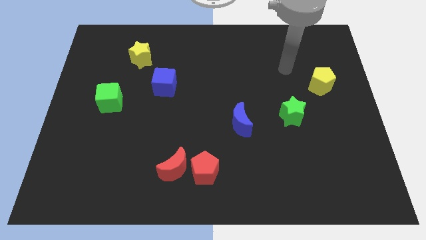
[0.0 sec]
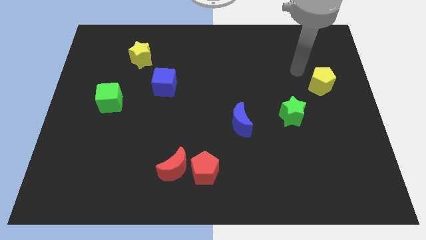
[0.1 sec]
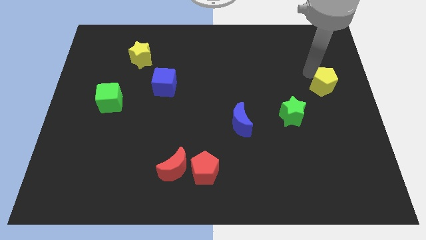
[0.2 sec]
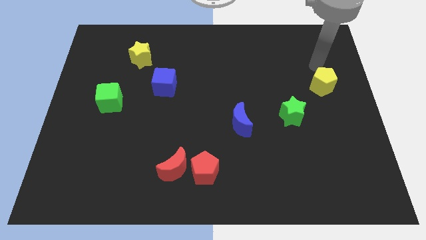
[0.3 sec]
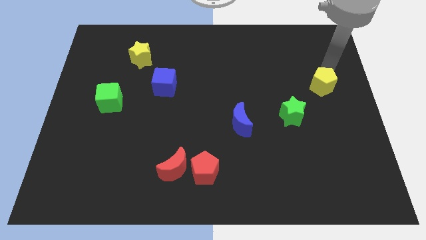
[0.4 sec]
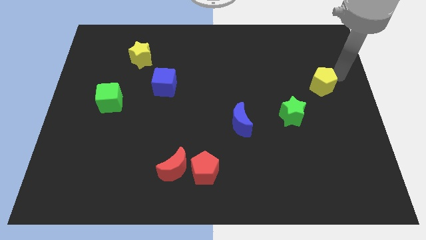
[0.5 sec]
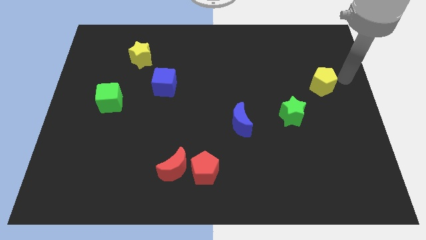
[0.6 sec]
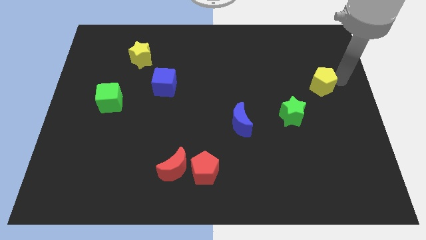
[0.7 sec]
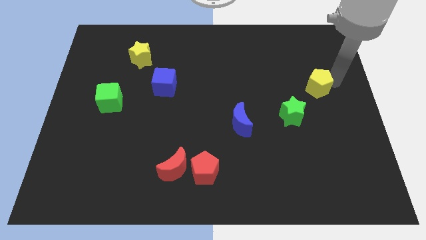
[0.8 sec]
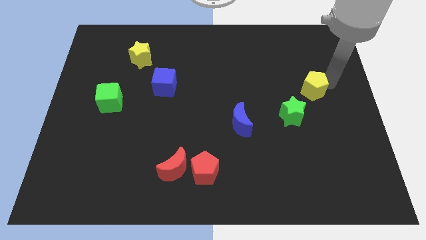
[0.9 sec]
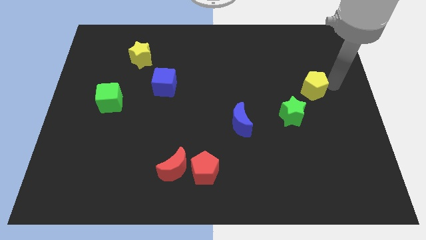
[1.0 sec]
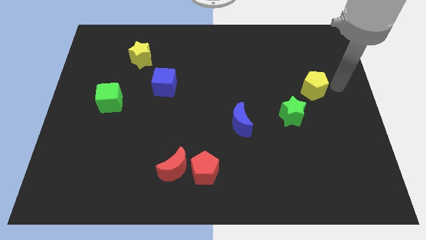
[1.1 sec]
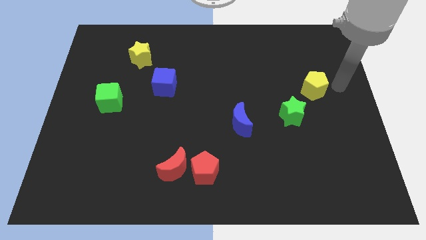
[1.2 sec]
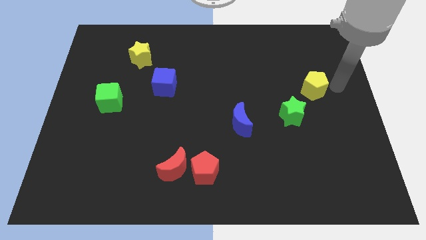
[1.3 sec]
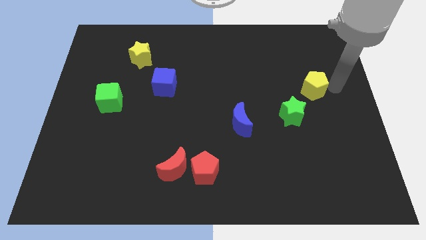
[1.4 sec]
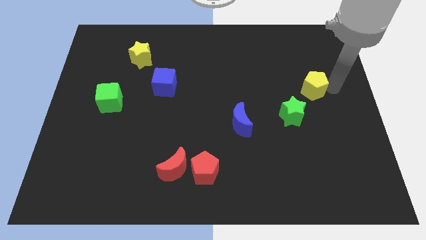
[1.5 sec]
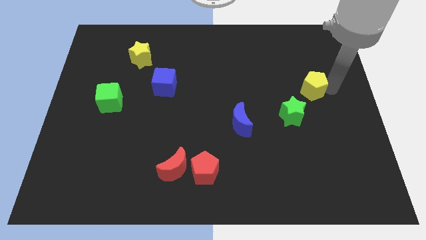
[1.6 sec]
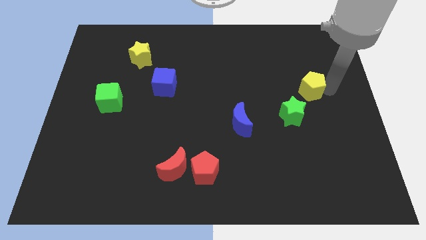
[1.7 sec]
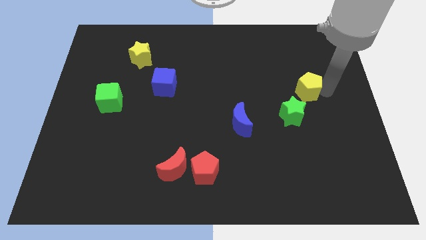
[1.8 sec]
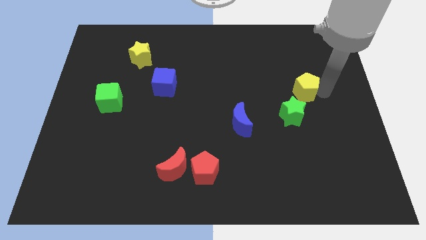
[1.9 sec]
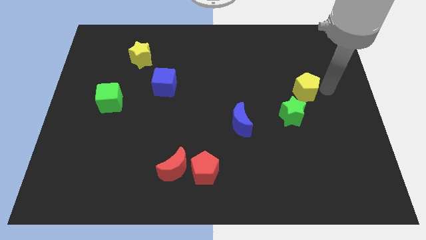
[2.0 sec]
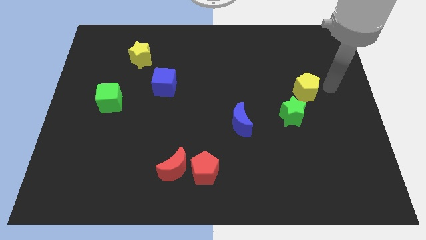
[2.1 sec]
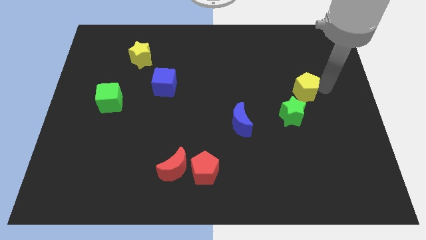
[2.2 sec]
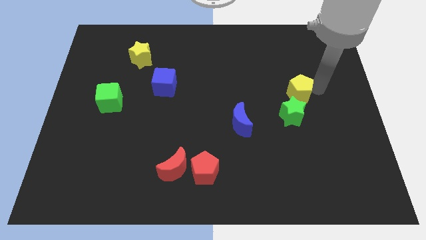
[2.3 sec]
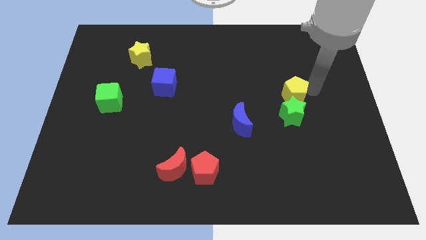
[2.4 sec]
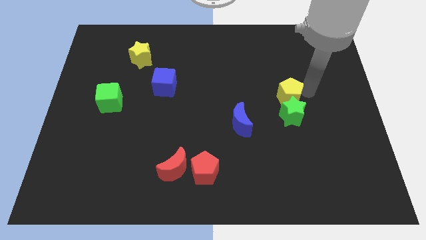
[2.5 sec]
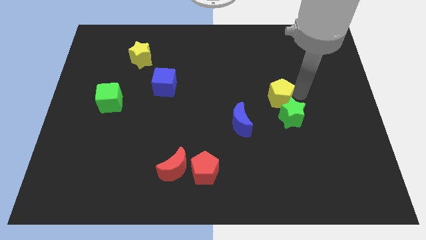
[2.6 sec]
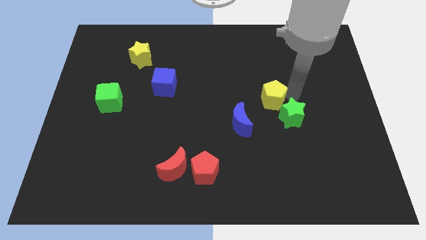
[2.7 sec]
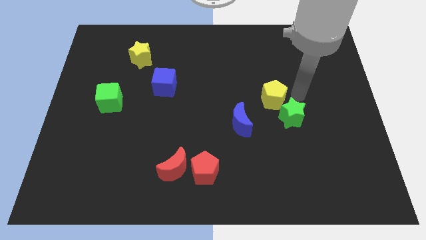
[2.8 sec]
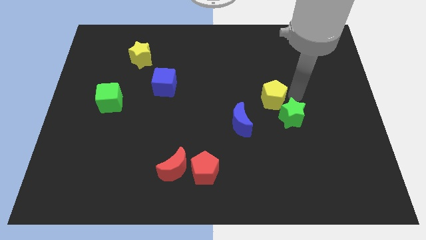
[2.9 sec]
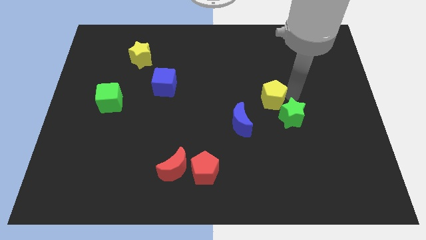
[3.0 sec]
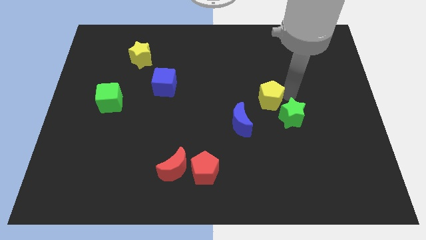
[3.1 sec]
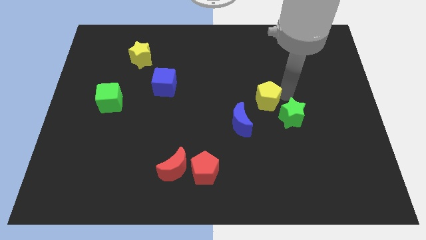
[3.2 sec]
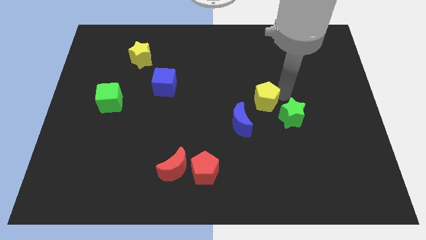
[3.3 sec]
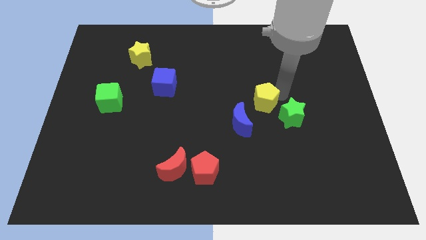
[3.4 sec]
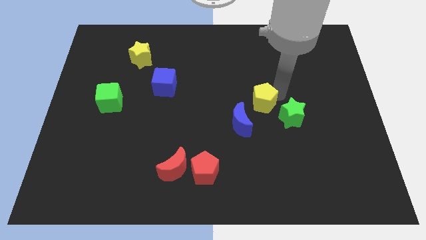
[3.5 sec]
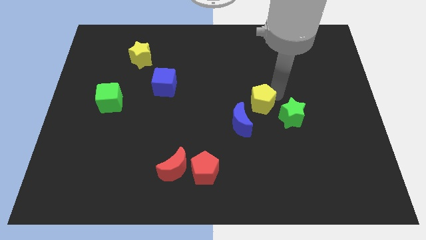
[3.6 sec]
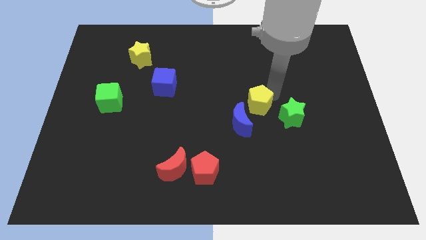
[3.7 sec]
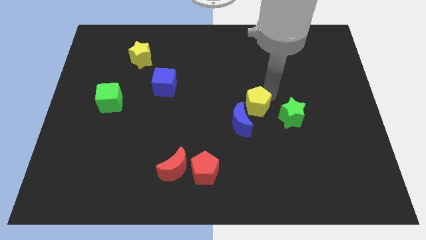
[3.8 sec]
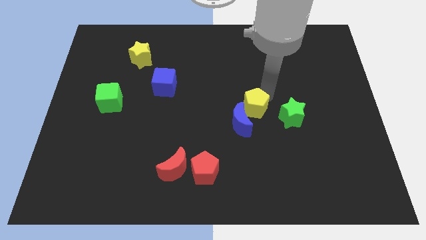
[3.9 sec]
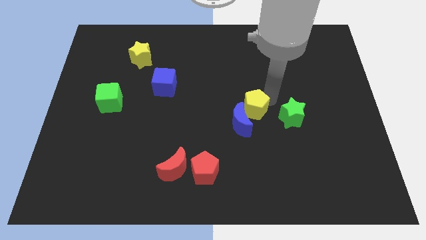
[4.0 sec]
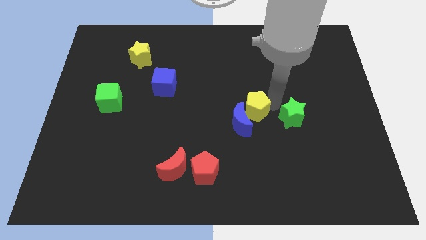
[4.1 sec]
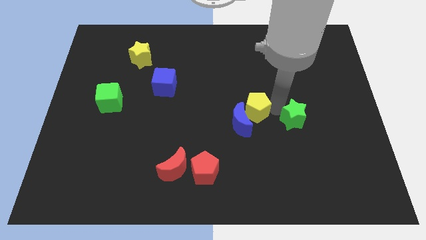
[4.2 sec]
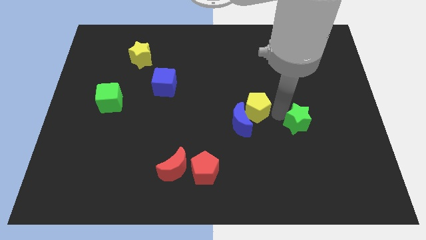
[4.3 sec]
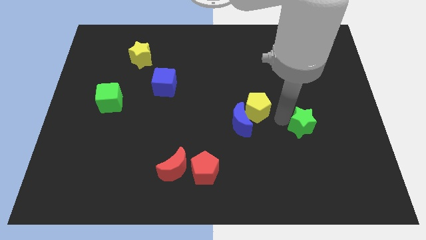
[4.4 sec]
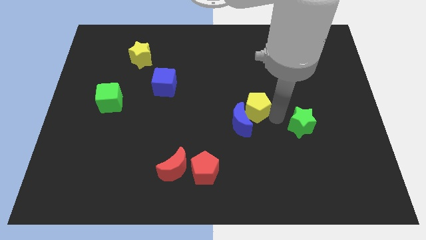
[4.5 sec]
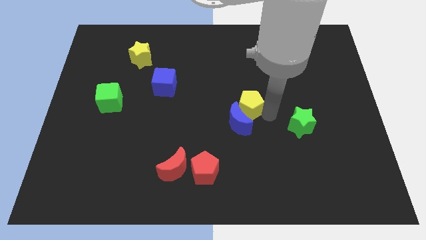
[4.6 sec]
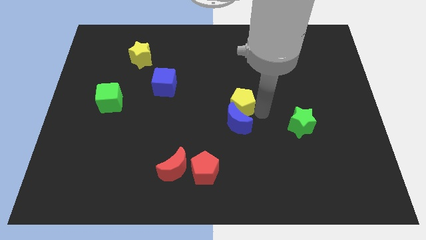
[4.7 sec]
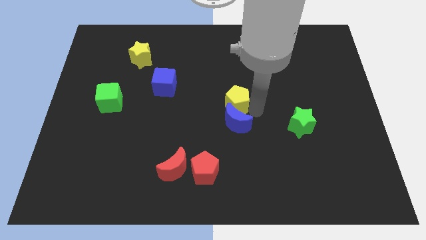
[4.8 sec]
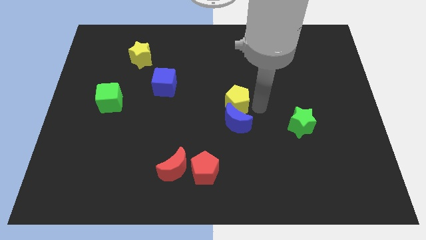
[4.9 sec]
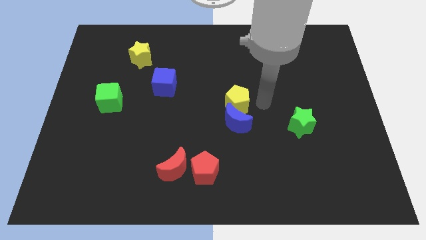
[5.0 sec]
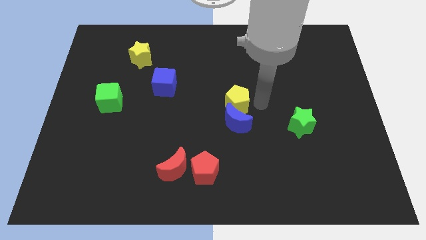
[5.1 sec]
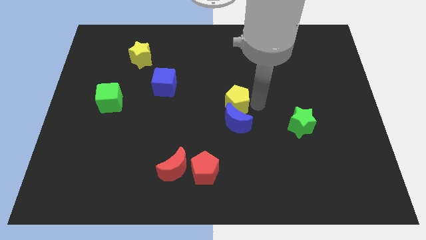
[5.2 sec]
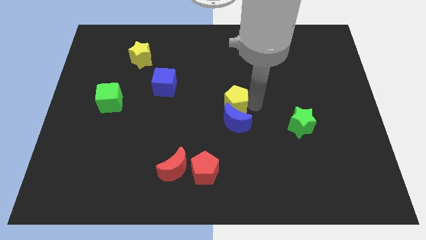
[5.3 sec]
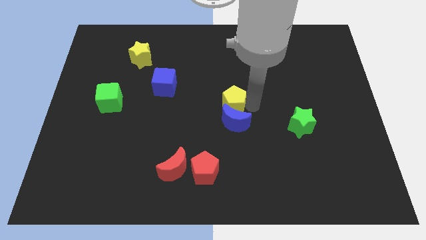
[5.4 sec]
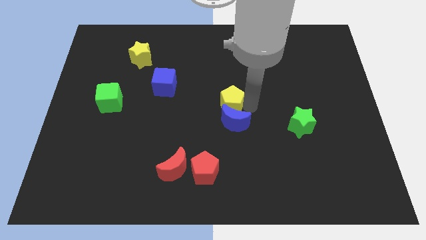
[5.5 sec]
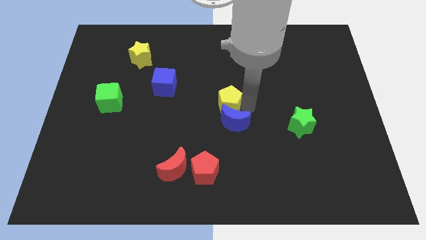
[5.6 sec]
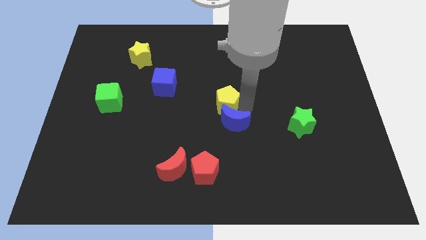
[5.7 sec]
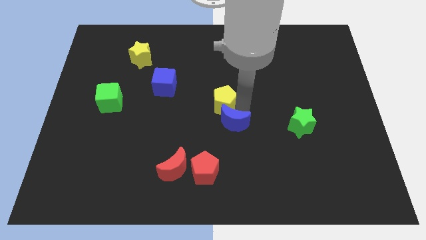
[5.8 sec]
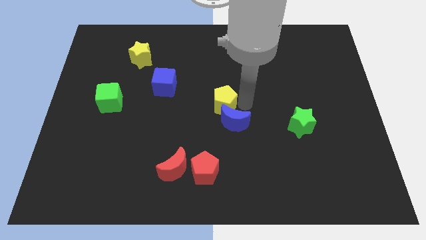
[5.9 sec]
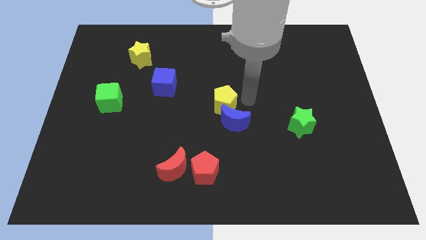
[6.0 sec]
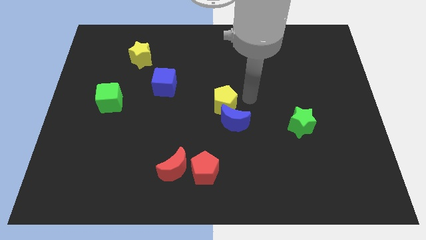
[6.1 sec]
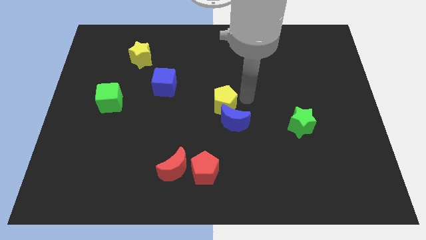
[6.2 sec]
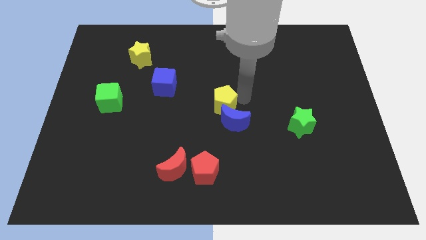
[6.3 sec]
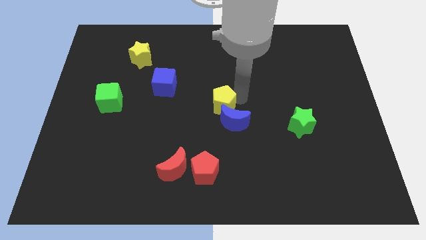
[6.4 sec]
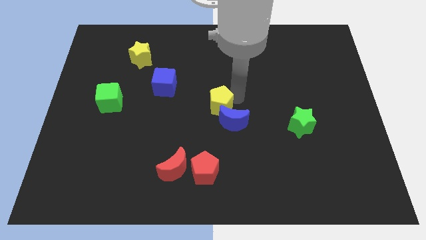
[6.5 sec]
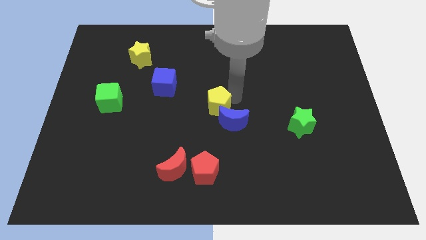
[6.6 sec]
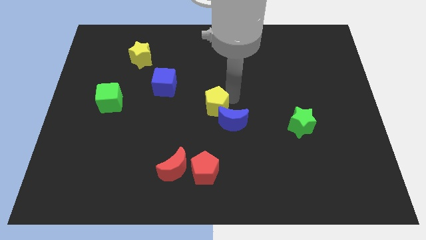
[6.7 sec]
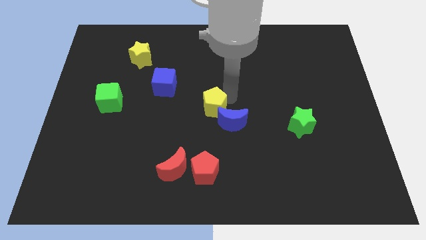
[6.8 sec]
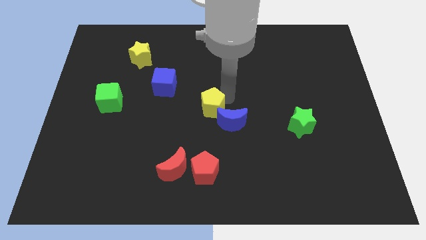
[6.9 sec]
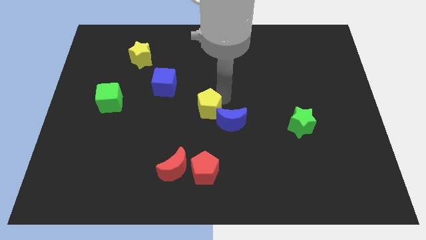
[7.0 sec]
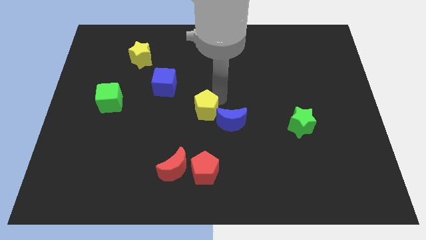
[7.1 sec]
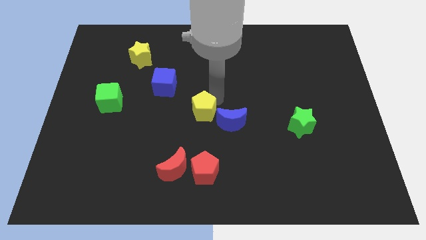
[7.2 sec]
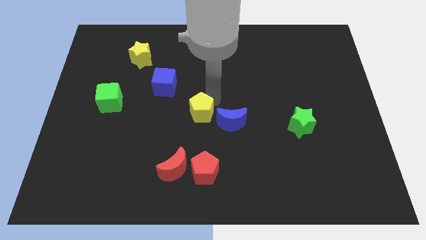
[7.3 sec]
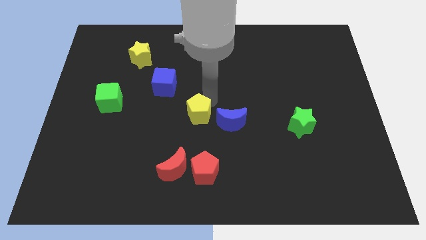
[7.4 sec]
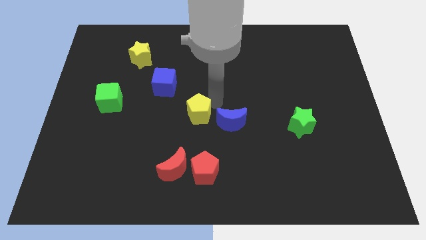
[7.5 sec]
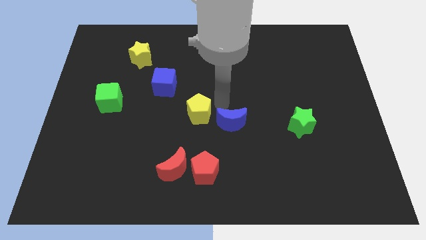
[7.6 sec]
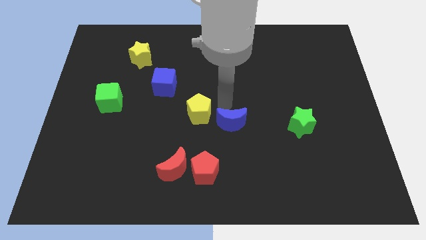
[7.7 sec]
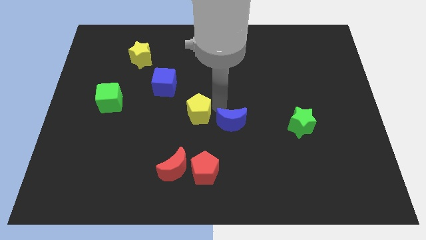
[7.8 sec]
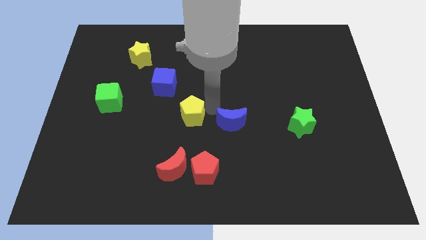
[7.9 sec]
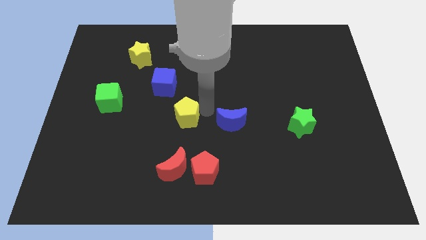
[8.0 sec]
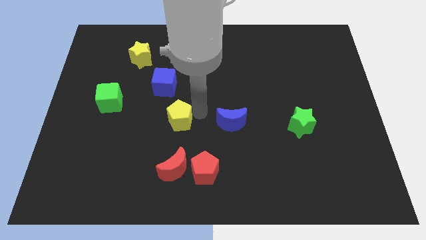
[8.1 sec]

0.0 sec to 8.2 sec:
push the yellow pentagon to the bottom side of the blue cube
